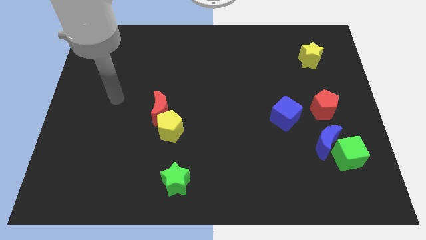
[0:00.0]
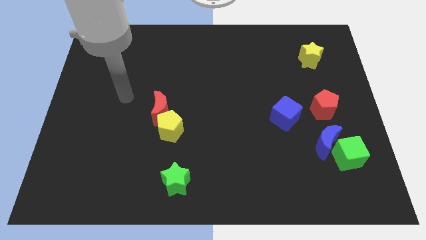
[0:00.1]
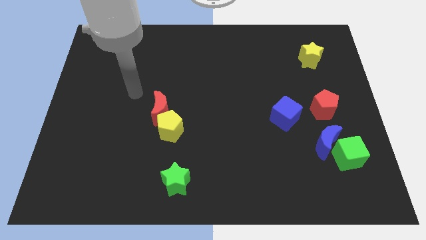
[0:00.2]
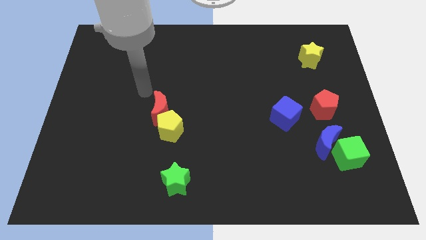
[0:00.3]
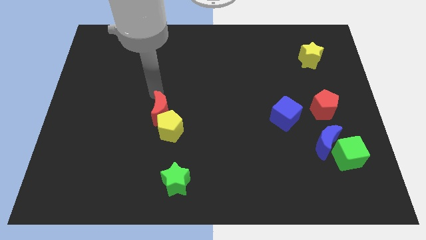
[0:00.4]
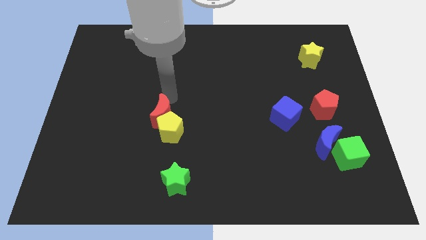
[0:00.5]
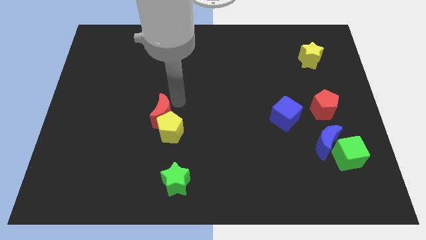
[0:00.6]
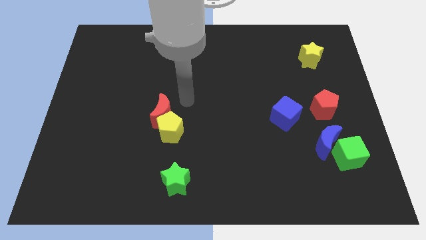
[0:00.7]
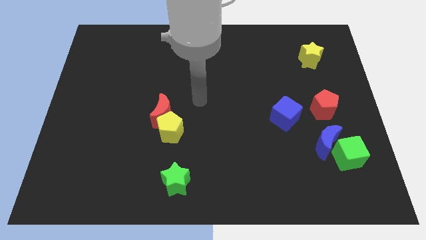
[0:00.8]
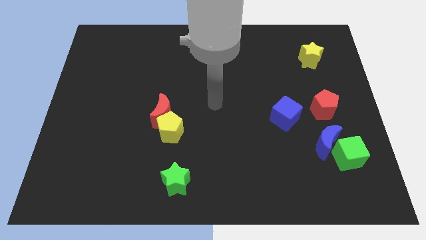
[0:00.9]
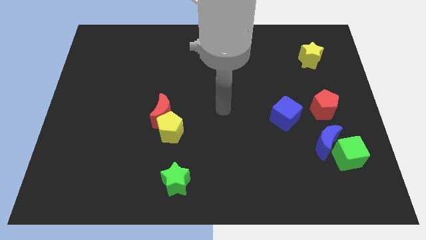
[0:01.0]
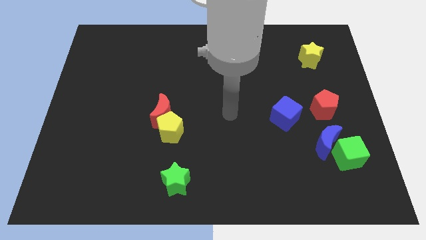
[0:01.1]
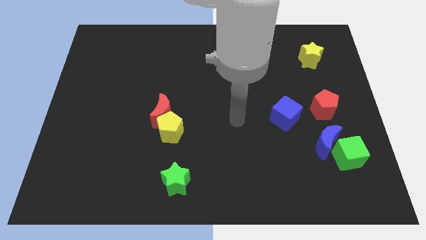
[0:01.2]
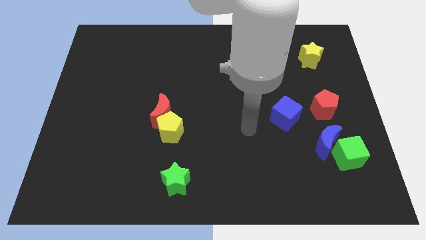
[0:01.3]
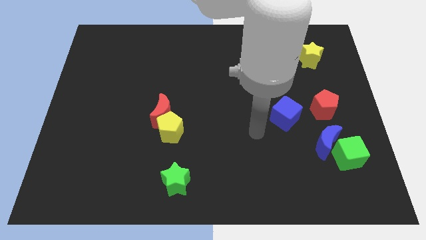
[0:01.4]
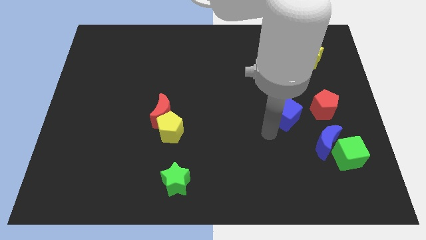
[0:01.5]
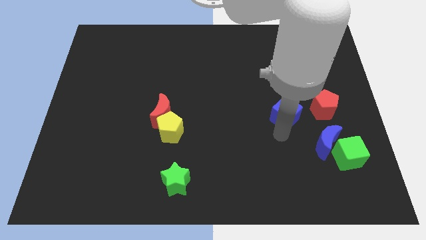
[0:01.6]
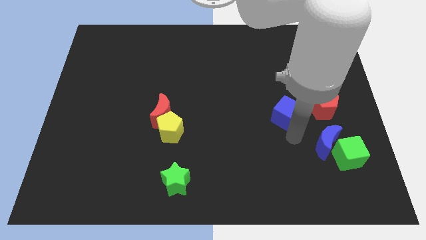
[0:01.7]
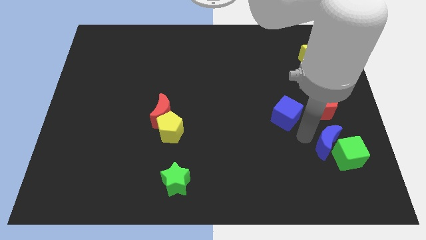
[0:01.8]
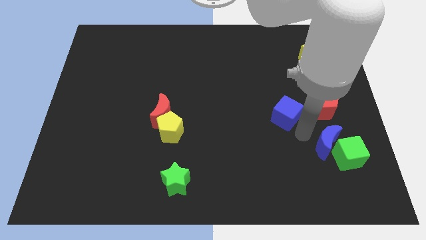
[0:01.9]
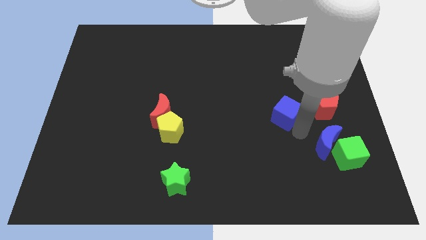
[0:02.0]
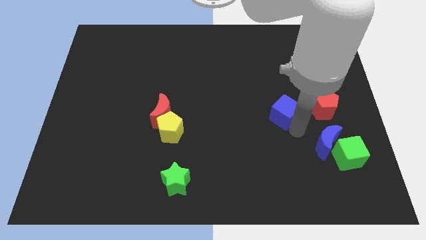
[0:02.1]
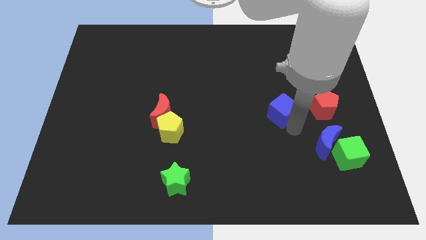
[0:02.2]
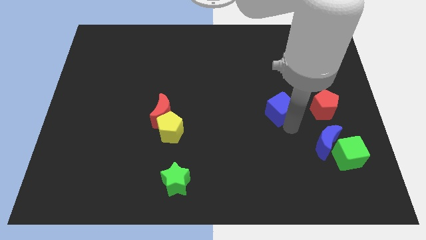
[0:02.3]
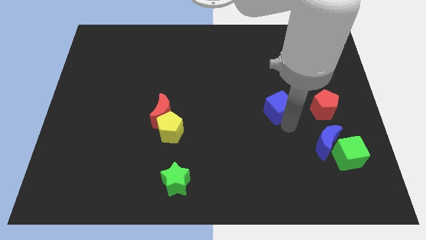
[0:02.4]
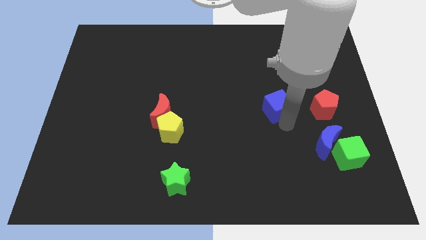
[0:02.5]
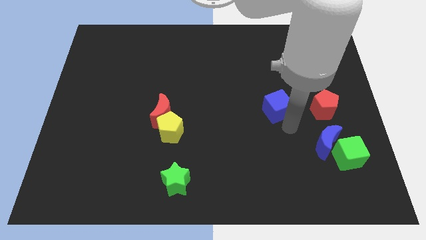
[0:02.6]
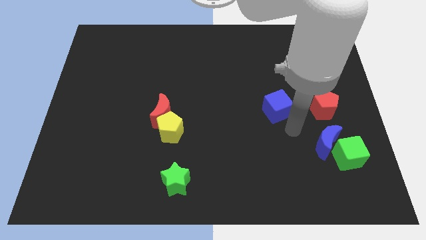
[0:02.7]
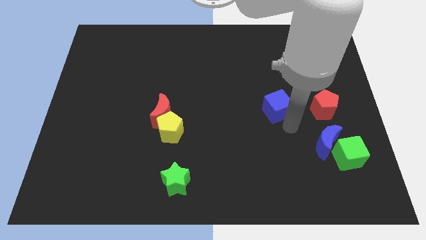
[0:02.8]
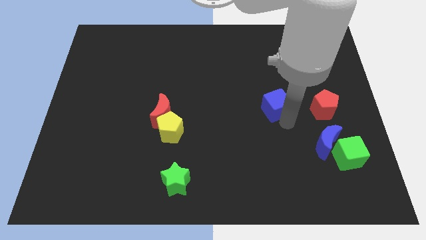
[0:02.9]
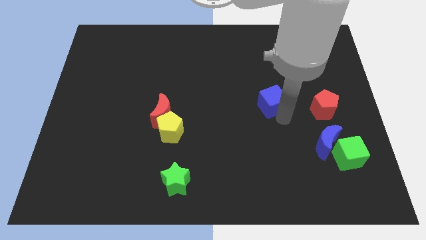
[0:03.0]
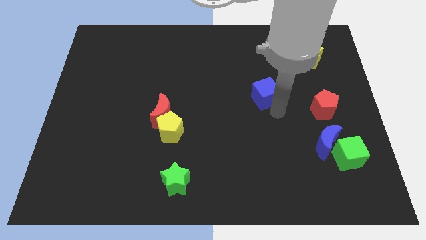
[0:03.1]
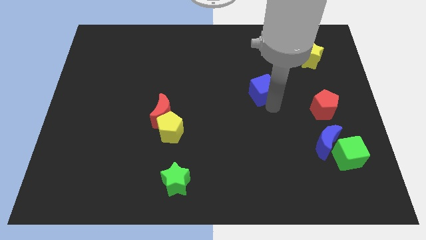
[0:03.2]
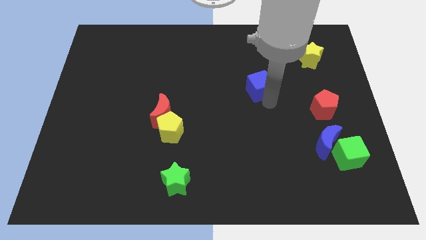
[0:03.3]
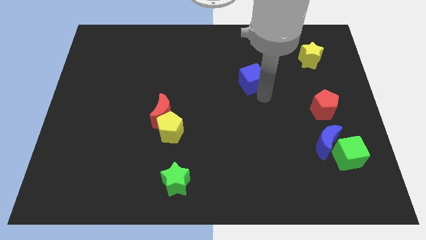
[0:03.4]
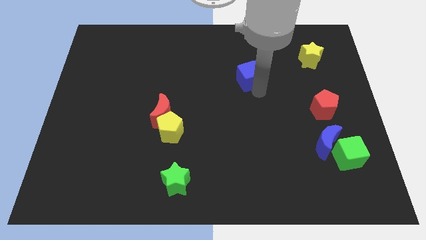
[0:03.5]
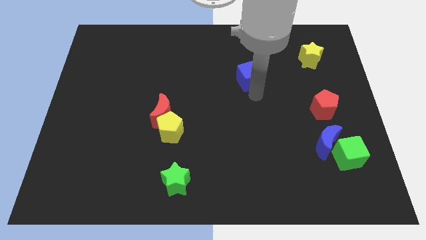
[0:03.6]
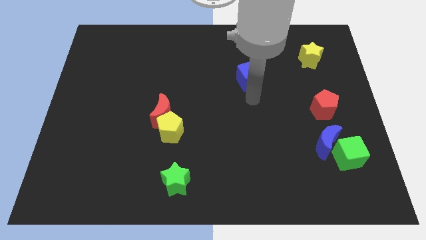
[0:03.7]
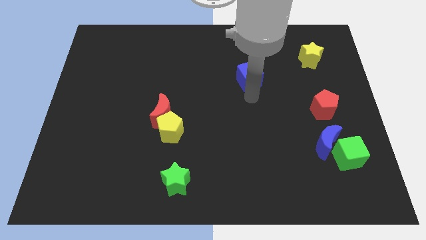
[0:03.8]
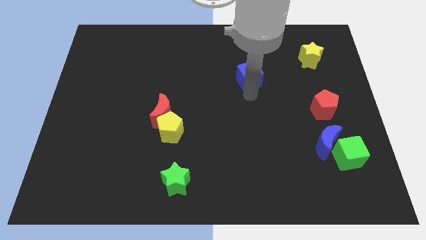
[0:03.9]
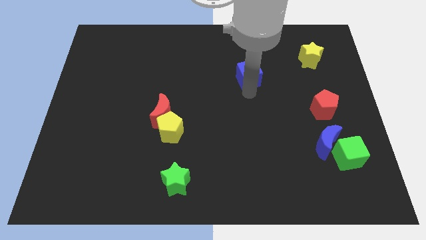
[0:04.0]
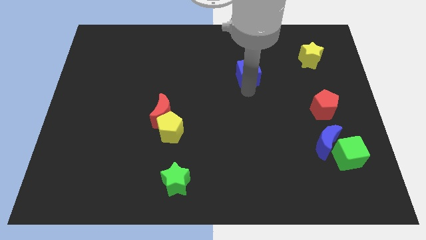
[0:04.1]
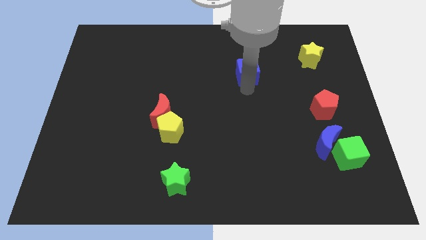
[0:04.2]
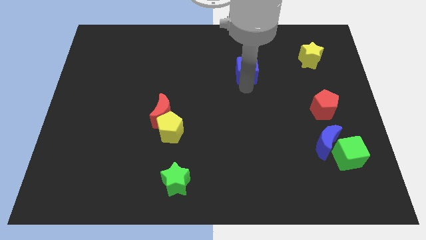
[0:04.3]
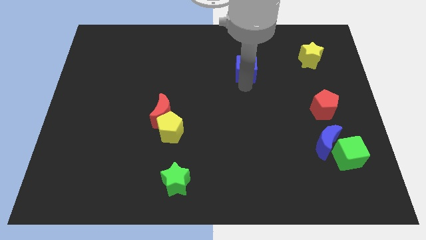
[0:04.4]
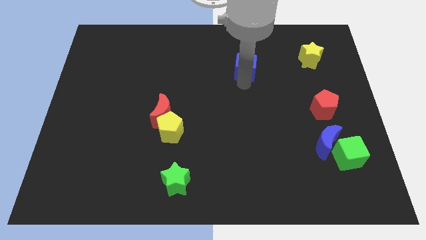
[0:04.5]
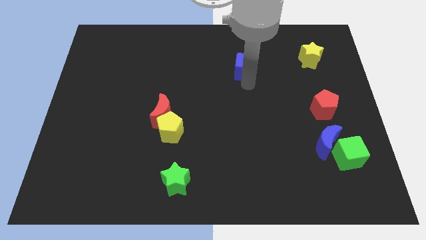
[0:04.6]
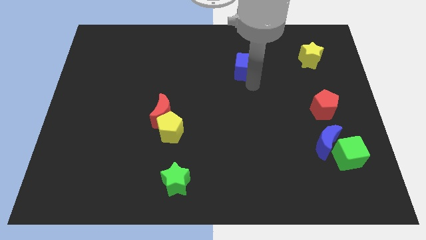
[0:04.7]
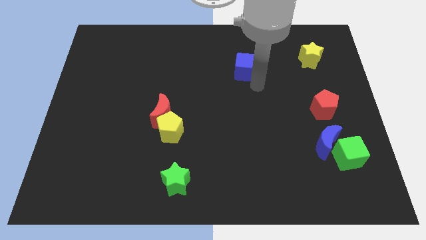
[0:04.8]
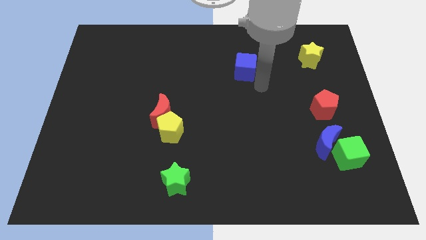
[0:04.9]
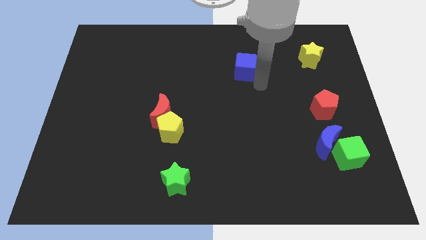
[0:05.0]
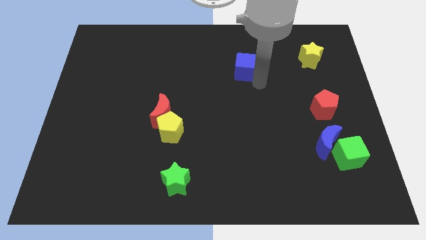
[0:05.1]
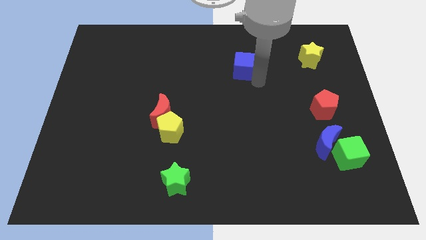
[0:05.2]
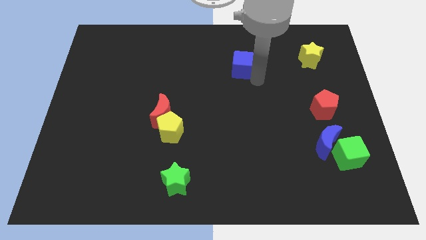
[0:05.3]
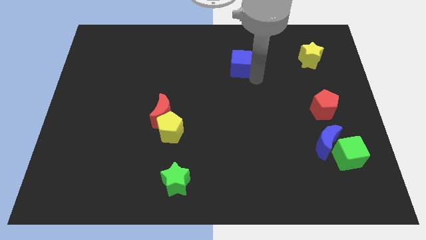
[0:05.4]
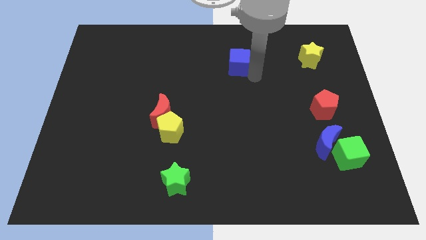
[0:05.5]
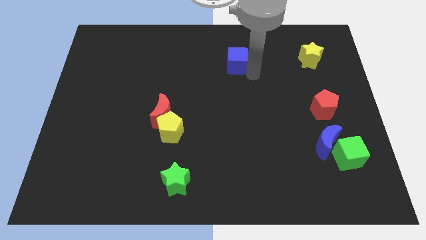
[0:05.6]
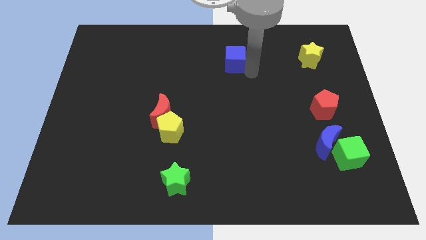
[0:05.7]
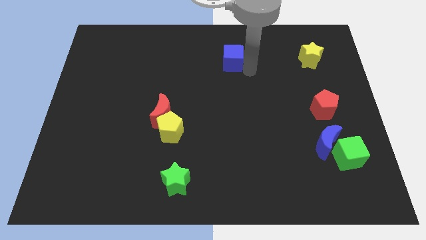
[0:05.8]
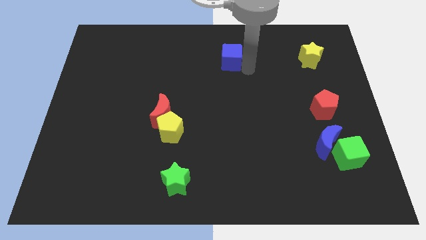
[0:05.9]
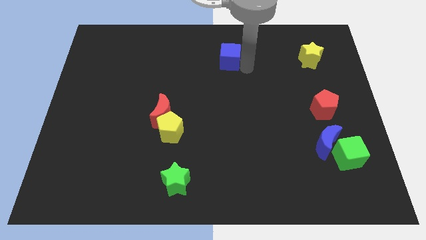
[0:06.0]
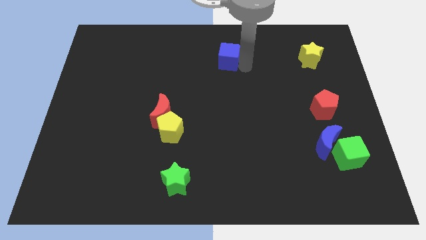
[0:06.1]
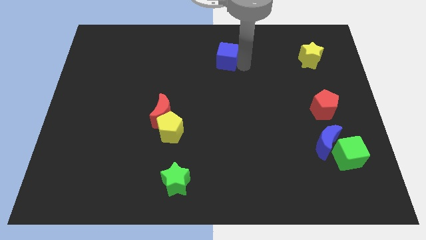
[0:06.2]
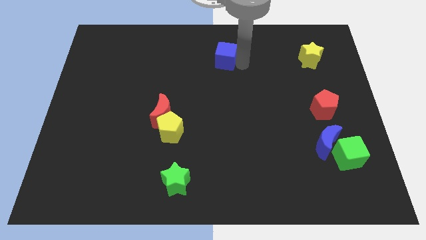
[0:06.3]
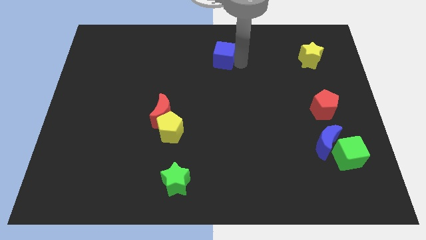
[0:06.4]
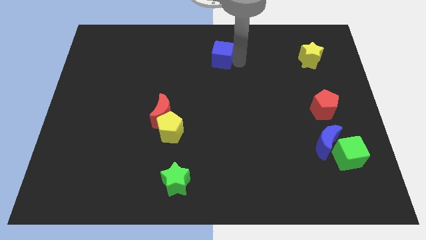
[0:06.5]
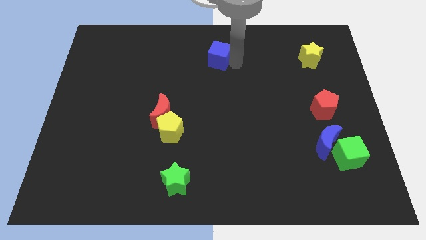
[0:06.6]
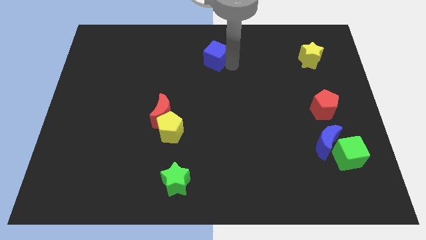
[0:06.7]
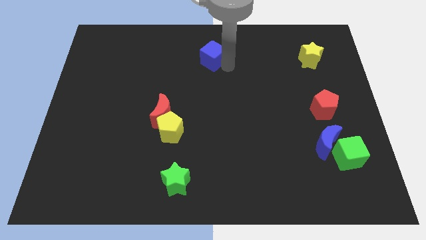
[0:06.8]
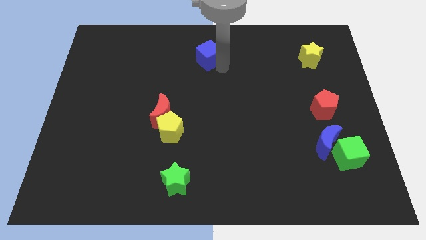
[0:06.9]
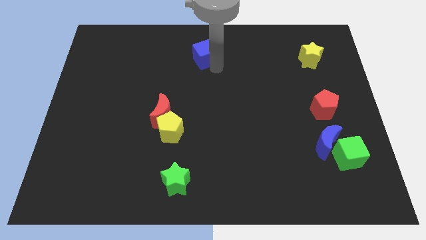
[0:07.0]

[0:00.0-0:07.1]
move the blue cube to the towards your base
